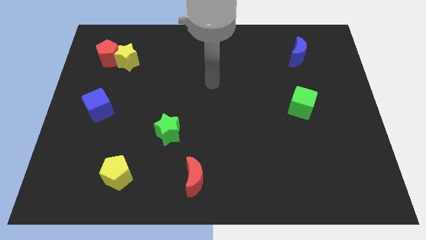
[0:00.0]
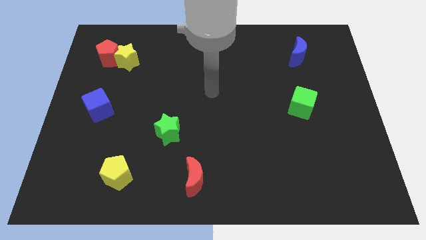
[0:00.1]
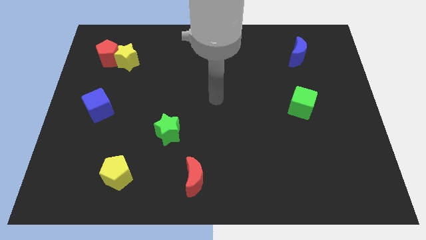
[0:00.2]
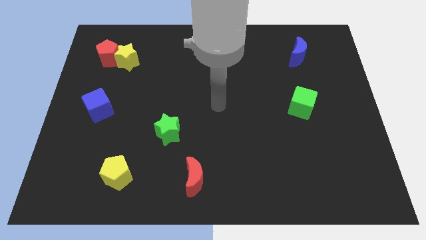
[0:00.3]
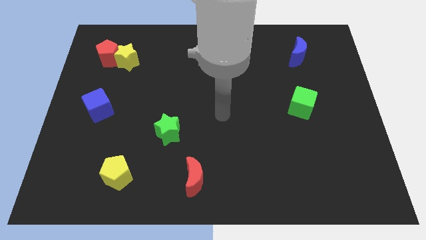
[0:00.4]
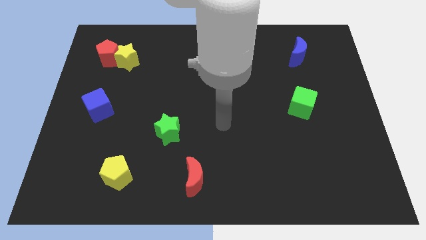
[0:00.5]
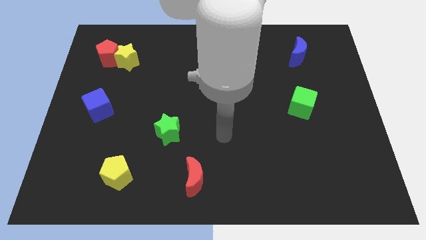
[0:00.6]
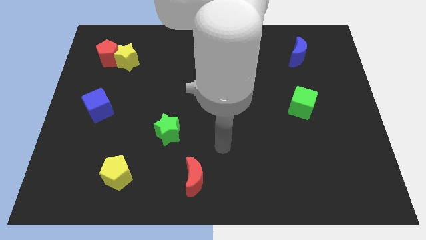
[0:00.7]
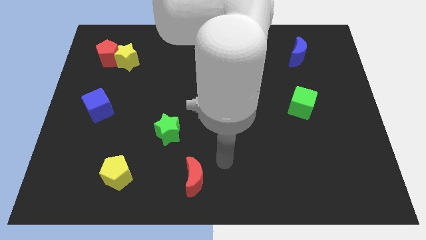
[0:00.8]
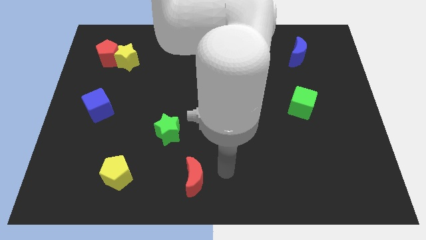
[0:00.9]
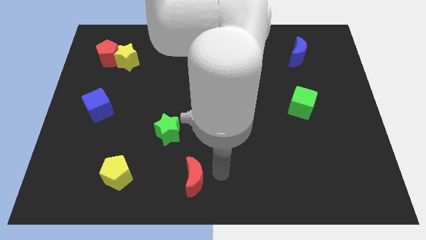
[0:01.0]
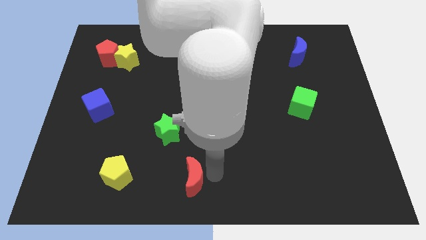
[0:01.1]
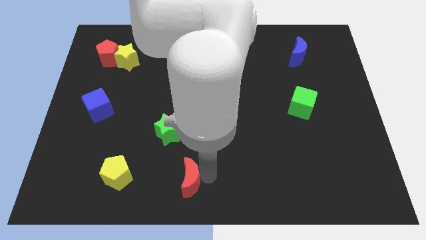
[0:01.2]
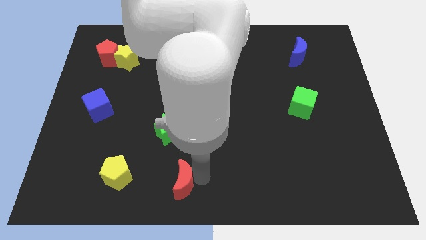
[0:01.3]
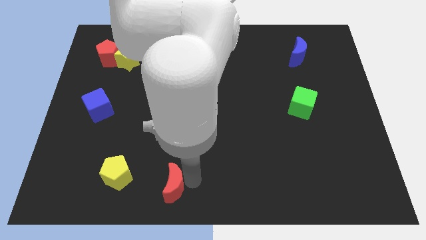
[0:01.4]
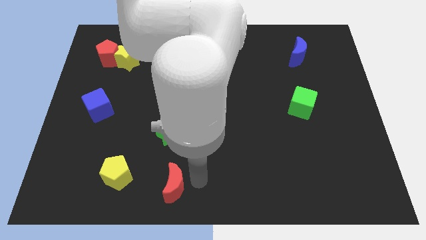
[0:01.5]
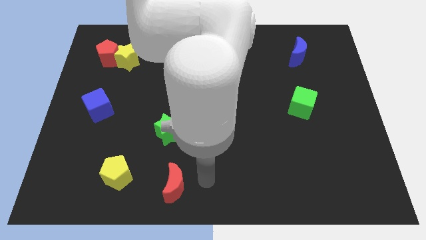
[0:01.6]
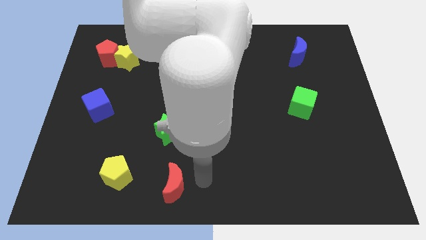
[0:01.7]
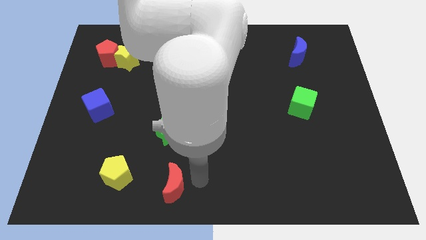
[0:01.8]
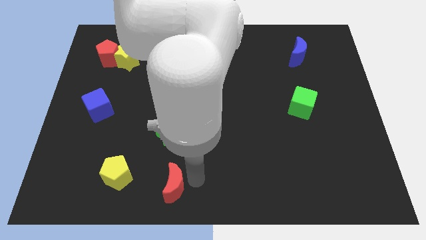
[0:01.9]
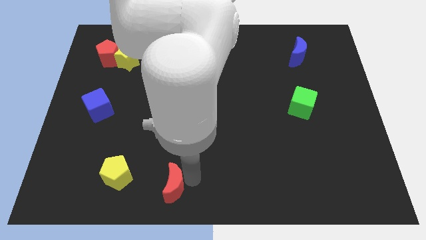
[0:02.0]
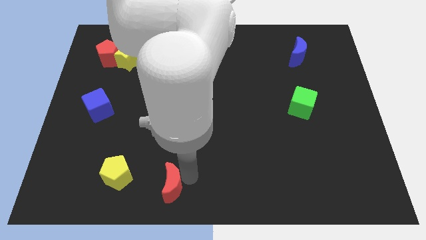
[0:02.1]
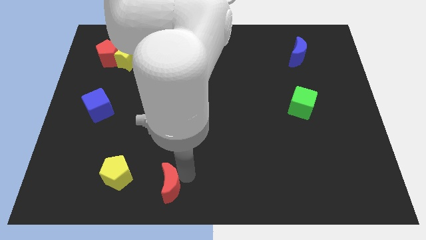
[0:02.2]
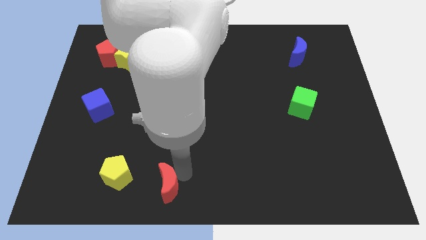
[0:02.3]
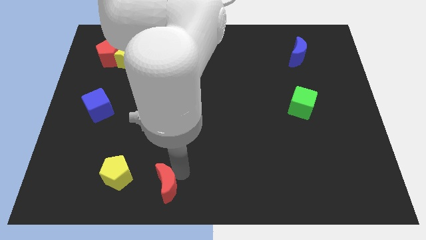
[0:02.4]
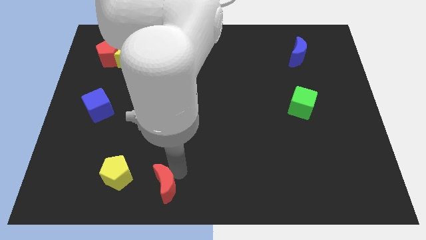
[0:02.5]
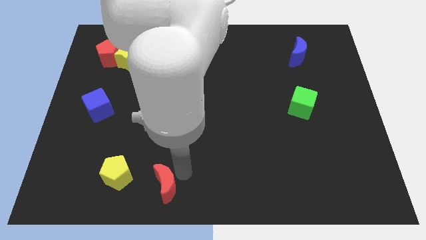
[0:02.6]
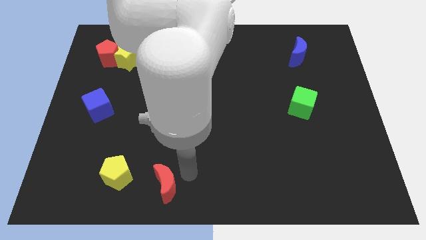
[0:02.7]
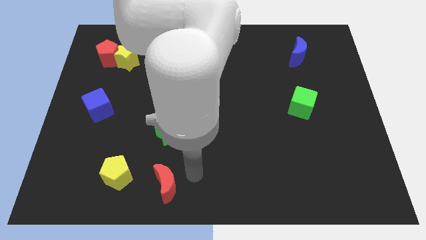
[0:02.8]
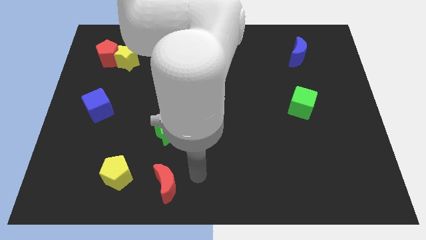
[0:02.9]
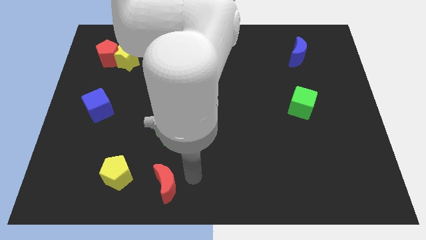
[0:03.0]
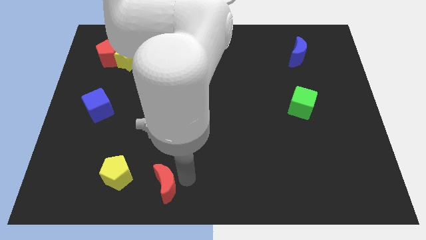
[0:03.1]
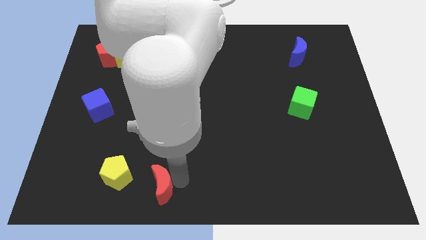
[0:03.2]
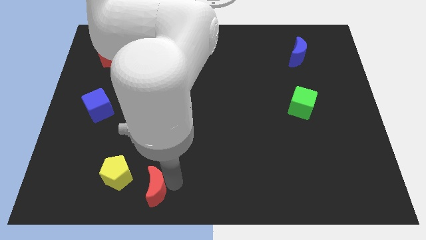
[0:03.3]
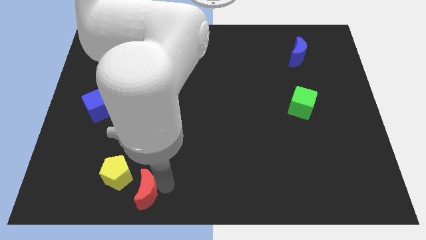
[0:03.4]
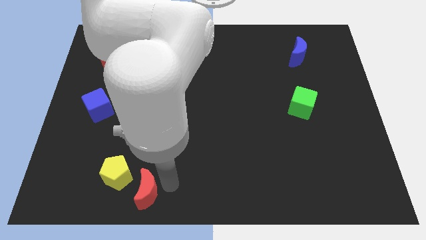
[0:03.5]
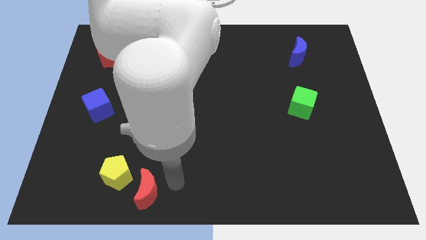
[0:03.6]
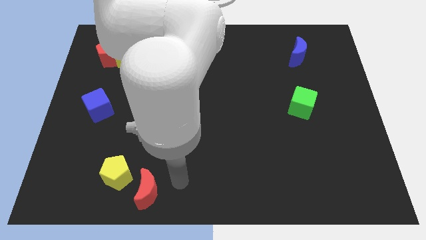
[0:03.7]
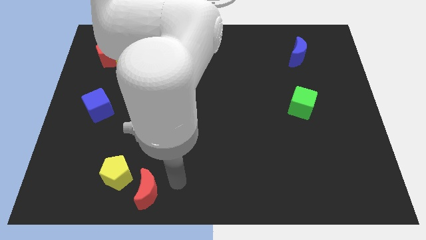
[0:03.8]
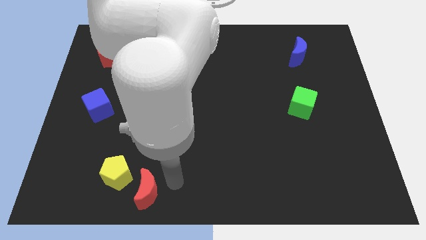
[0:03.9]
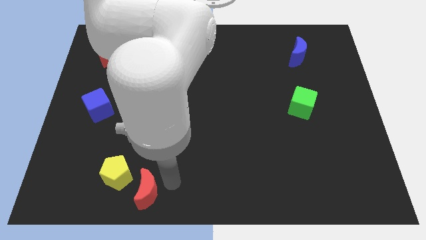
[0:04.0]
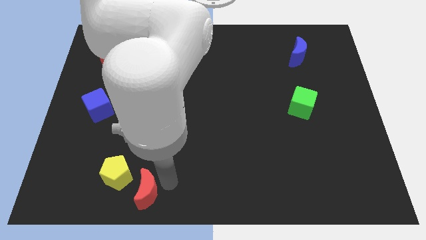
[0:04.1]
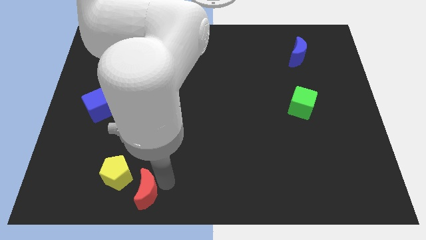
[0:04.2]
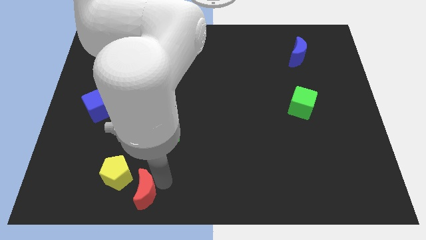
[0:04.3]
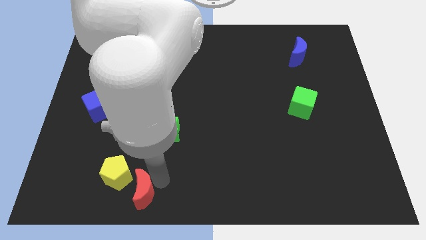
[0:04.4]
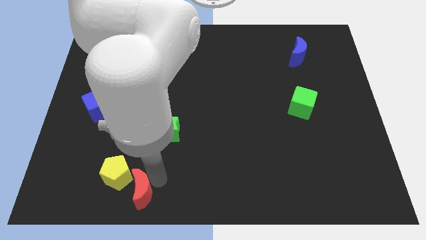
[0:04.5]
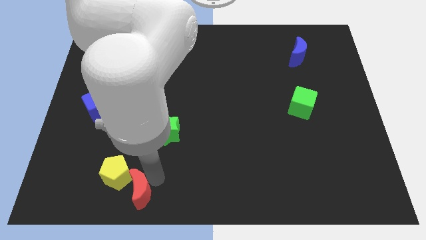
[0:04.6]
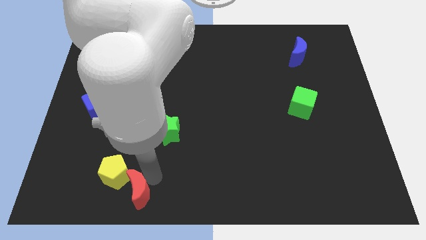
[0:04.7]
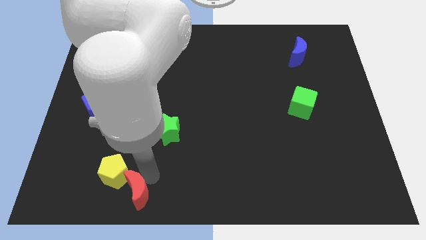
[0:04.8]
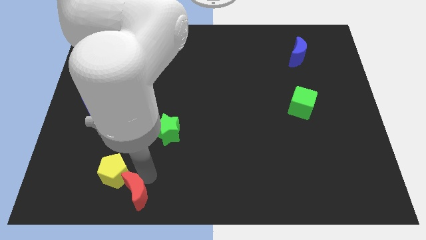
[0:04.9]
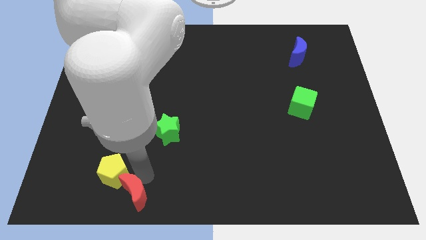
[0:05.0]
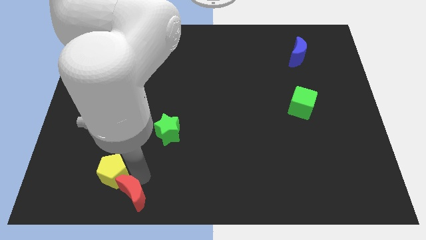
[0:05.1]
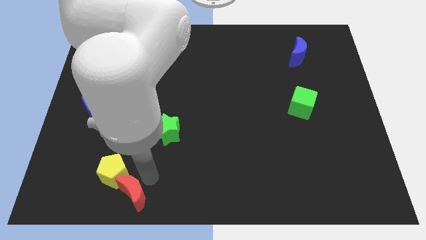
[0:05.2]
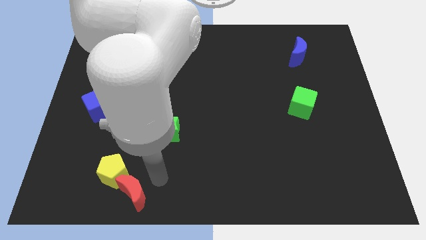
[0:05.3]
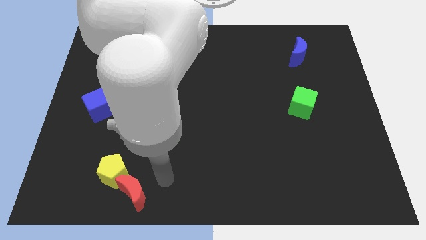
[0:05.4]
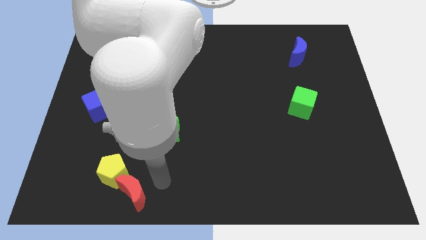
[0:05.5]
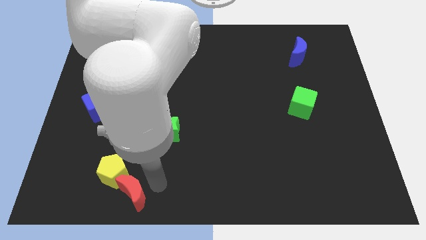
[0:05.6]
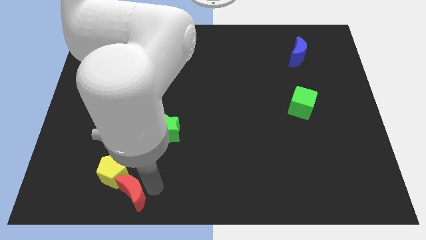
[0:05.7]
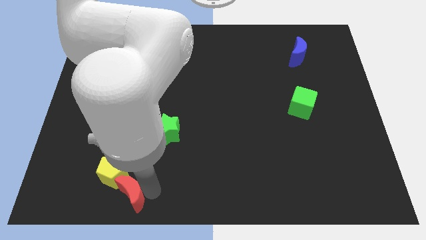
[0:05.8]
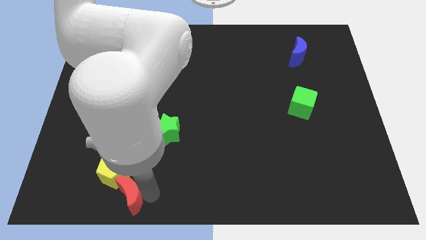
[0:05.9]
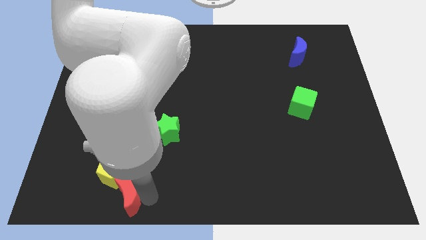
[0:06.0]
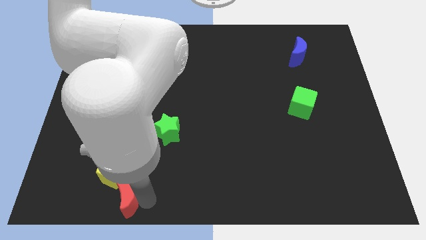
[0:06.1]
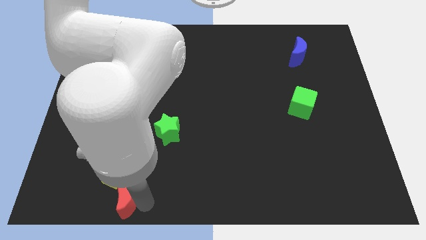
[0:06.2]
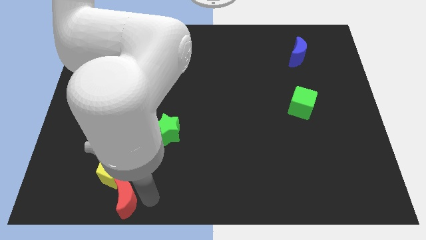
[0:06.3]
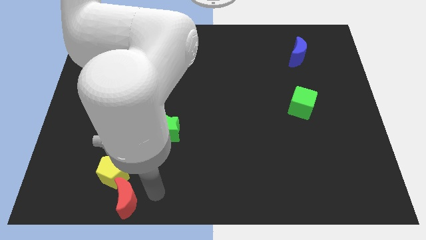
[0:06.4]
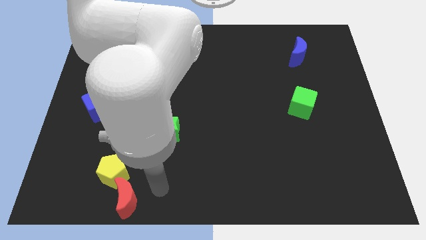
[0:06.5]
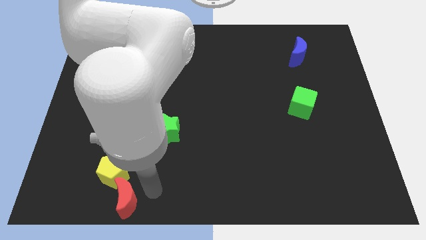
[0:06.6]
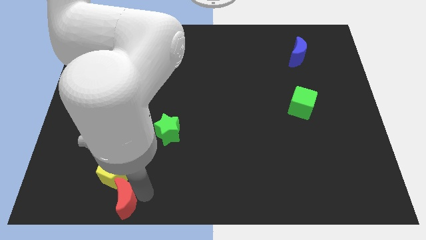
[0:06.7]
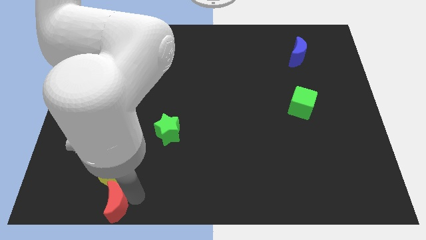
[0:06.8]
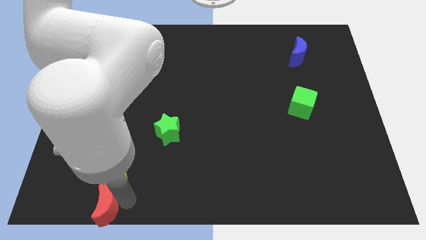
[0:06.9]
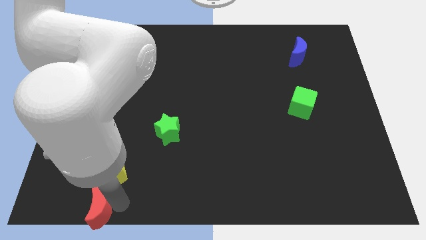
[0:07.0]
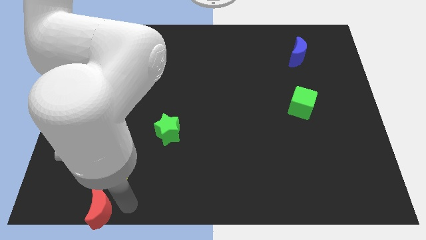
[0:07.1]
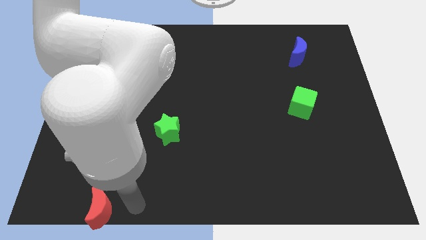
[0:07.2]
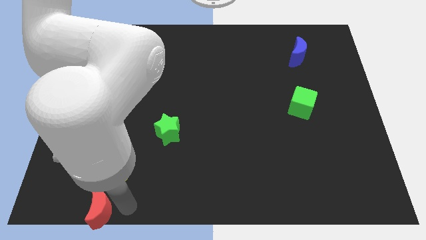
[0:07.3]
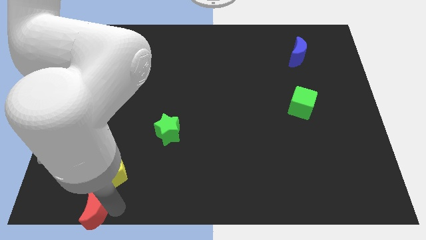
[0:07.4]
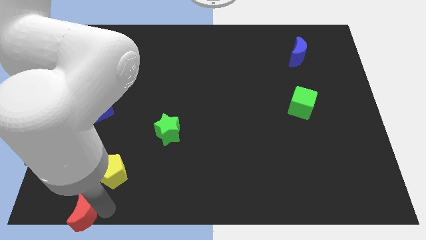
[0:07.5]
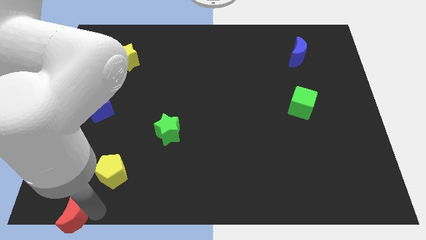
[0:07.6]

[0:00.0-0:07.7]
put the red moon to the bottom left corner
